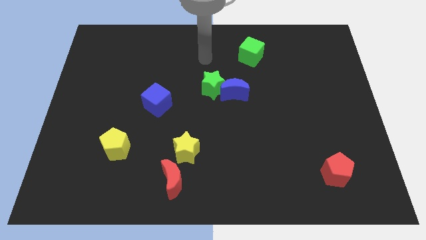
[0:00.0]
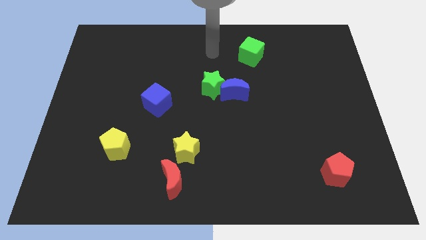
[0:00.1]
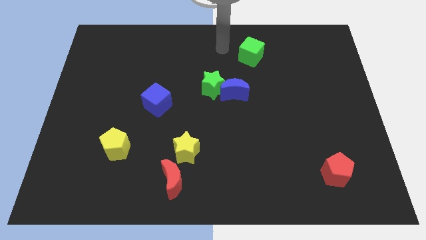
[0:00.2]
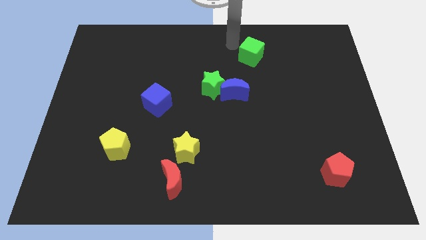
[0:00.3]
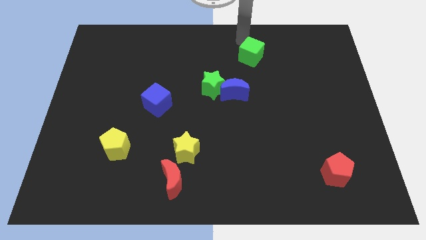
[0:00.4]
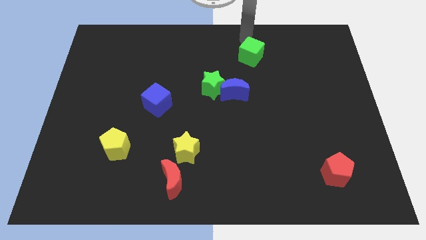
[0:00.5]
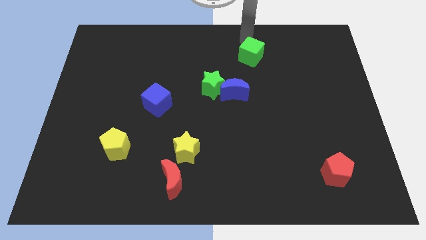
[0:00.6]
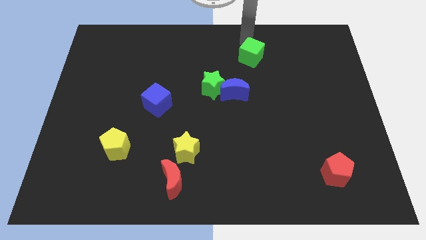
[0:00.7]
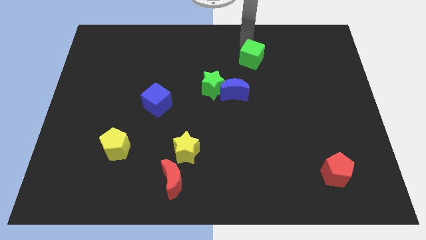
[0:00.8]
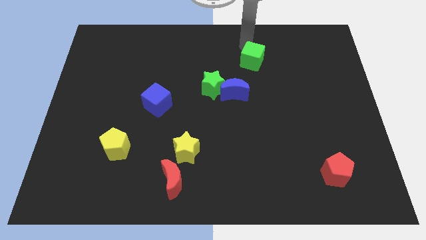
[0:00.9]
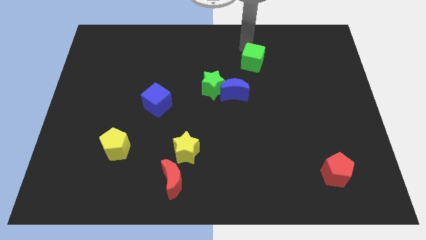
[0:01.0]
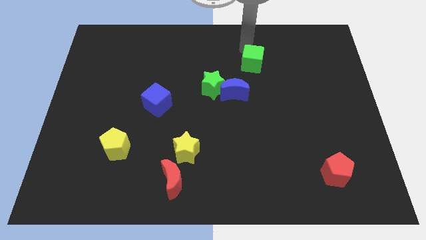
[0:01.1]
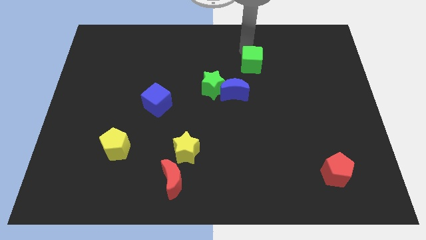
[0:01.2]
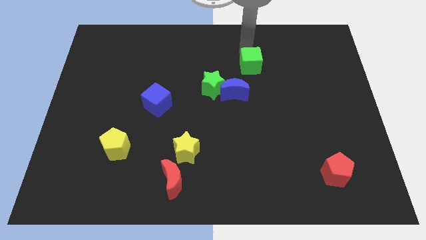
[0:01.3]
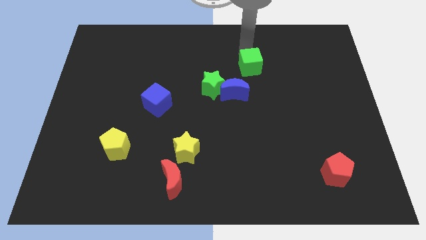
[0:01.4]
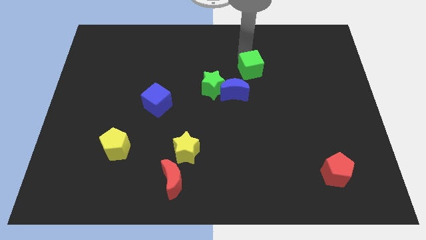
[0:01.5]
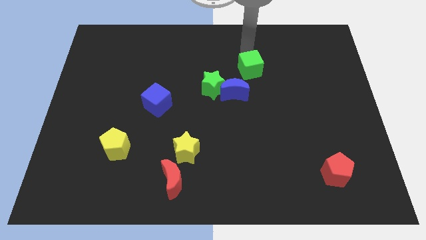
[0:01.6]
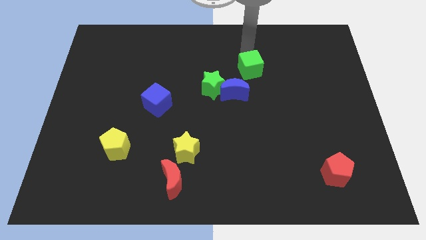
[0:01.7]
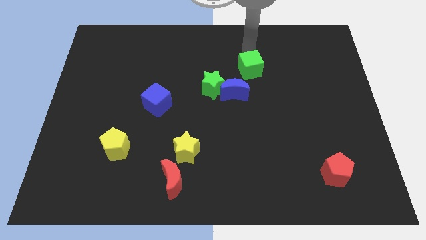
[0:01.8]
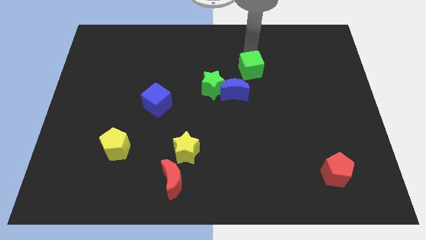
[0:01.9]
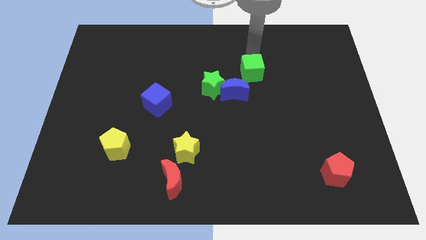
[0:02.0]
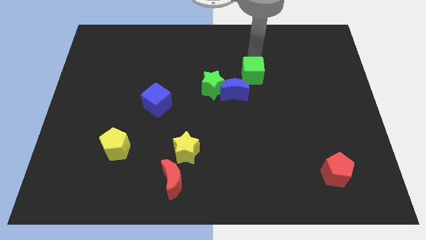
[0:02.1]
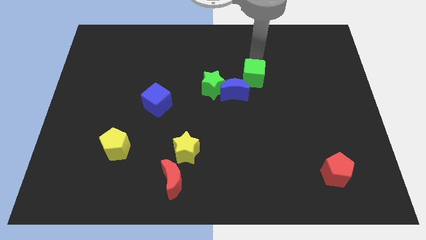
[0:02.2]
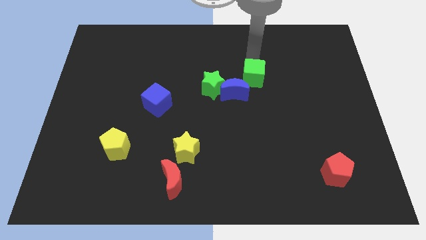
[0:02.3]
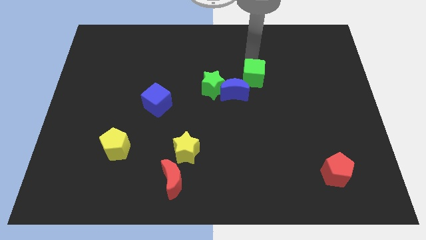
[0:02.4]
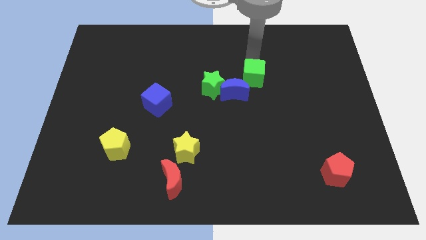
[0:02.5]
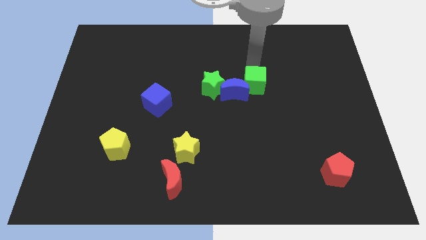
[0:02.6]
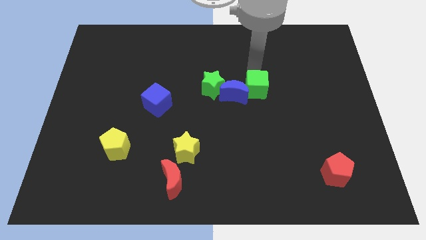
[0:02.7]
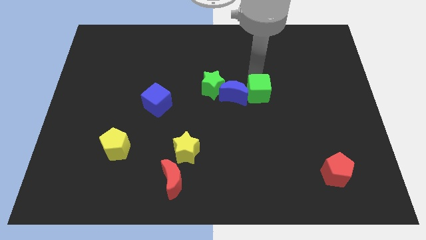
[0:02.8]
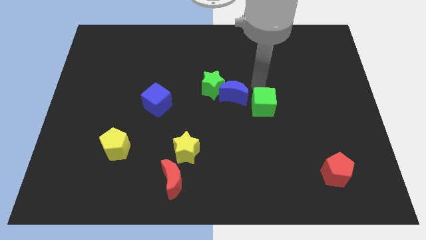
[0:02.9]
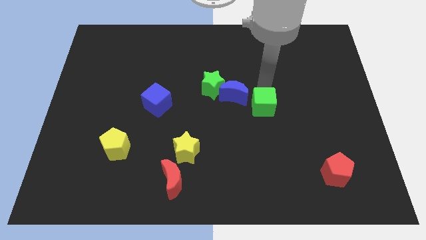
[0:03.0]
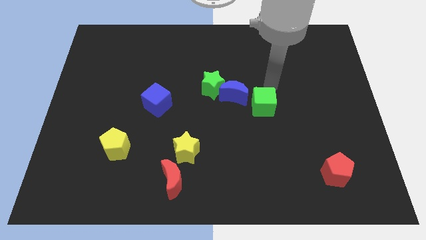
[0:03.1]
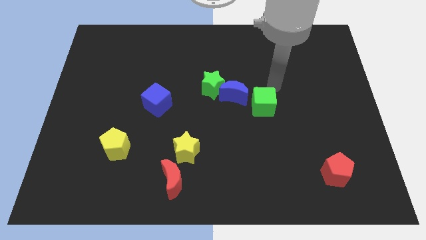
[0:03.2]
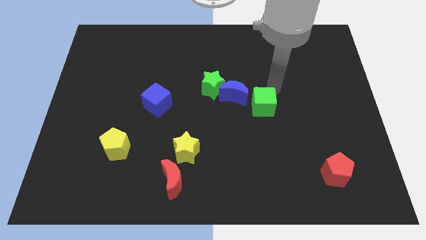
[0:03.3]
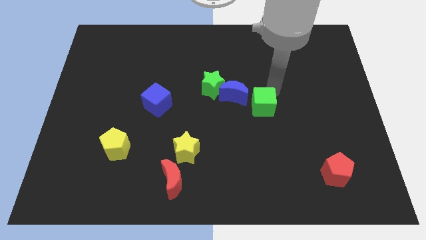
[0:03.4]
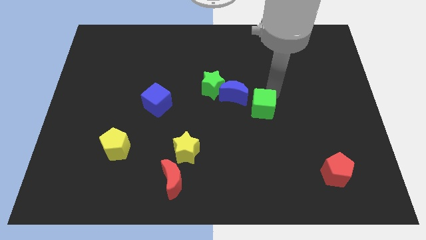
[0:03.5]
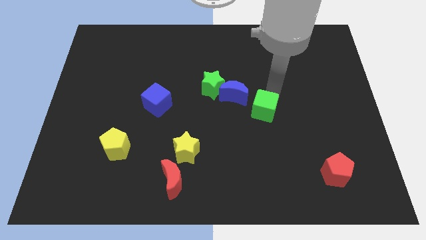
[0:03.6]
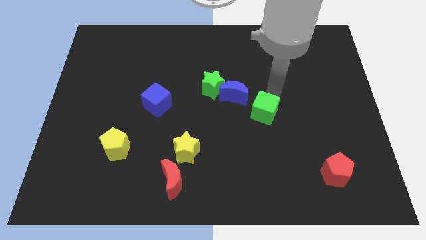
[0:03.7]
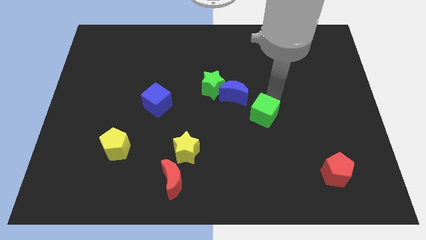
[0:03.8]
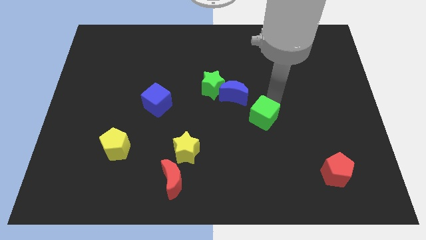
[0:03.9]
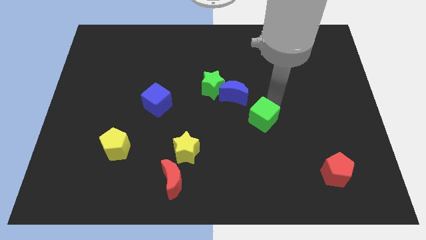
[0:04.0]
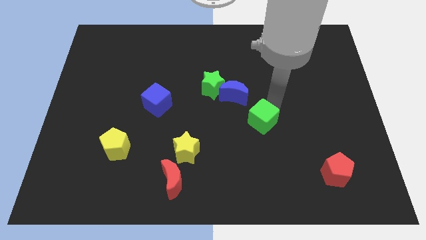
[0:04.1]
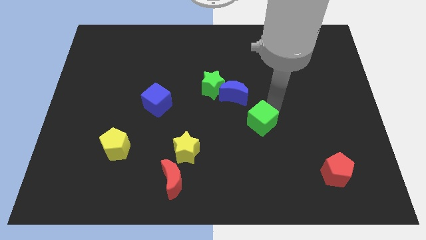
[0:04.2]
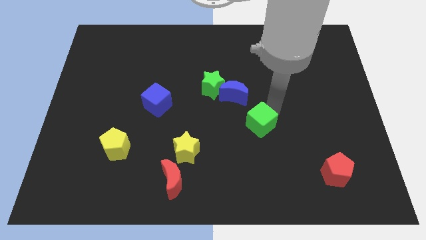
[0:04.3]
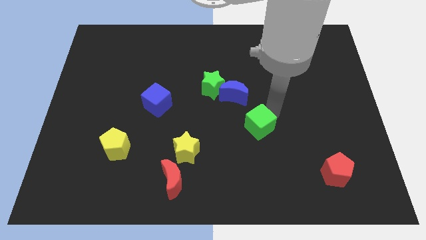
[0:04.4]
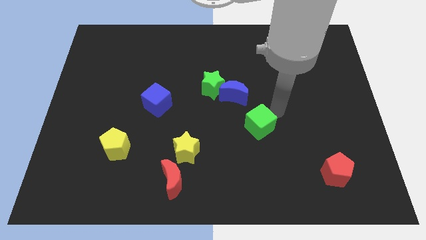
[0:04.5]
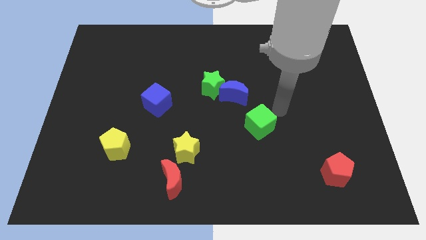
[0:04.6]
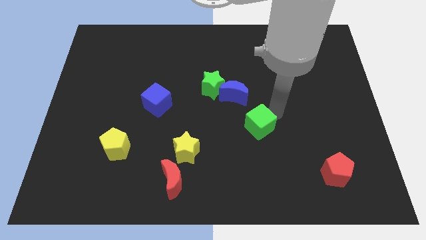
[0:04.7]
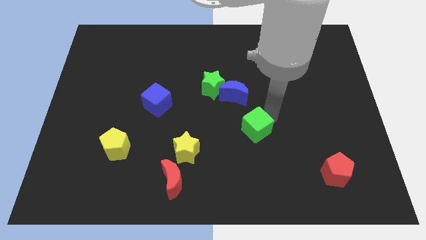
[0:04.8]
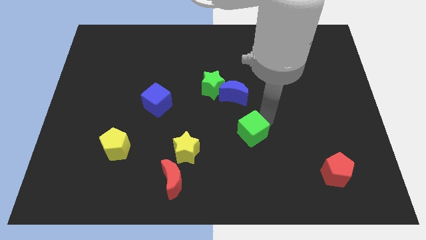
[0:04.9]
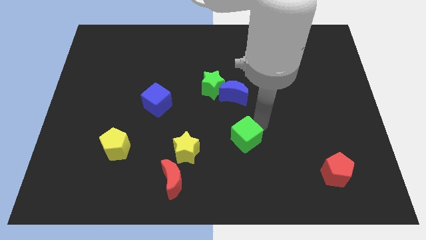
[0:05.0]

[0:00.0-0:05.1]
put the green cube just right of the yellow star

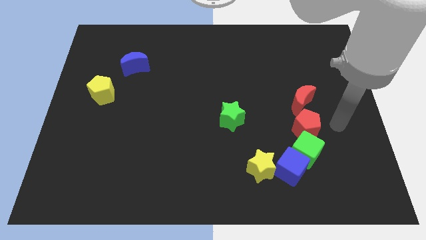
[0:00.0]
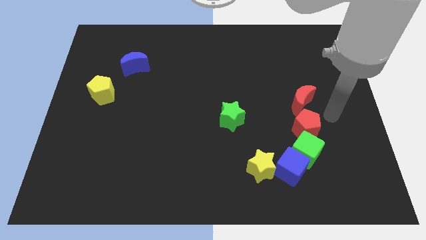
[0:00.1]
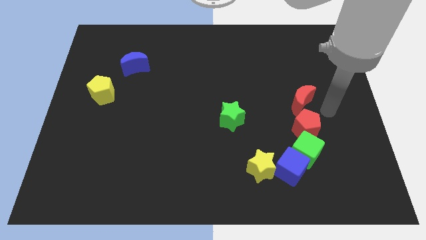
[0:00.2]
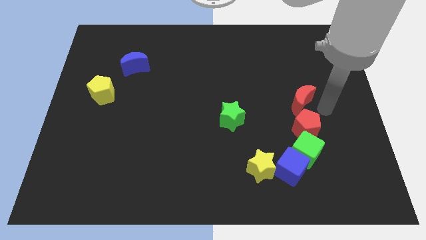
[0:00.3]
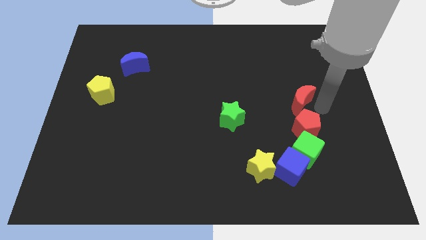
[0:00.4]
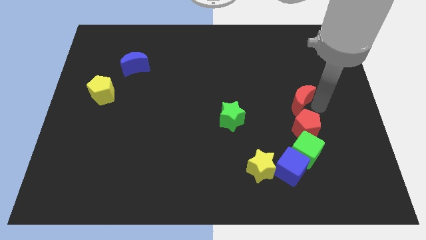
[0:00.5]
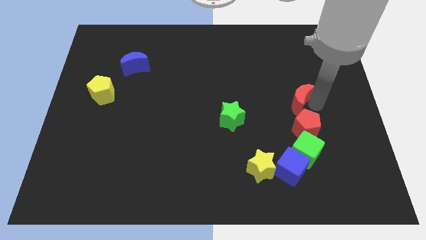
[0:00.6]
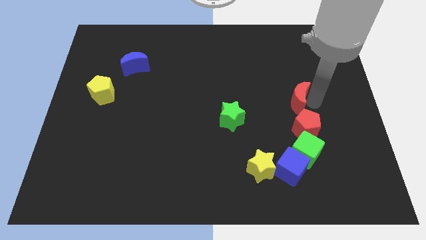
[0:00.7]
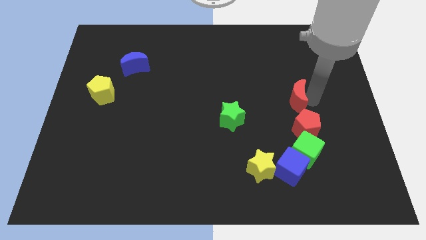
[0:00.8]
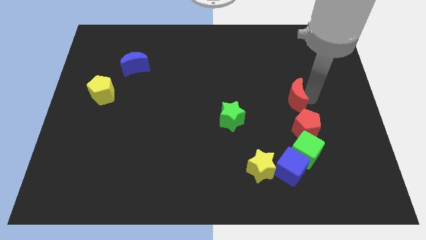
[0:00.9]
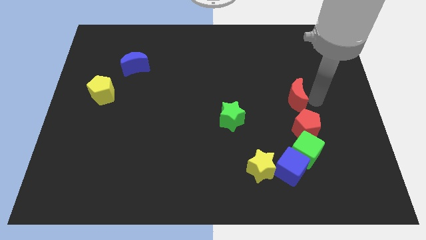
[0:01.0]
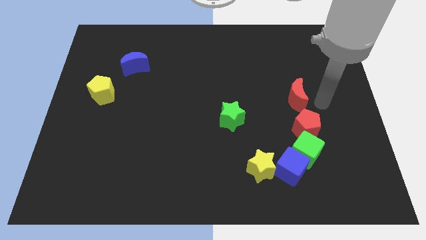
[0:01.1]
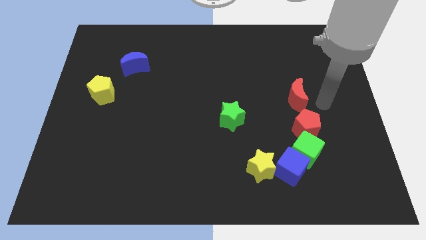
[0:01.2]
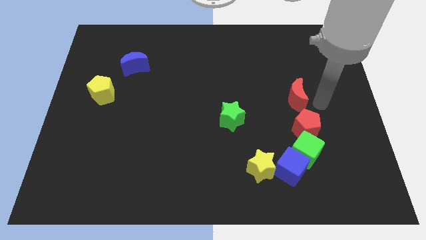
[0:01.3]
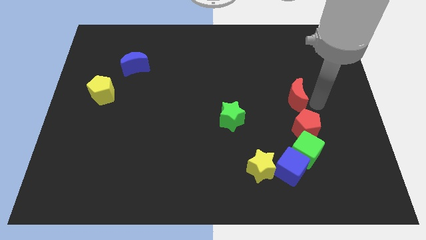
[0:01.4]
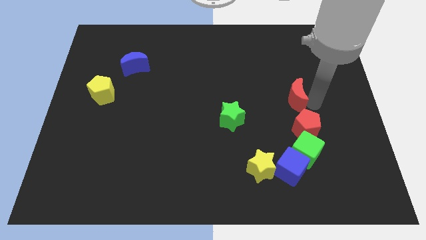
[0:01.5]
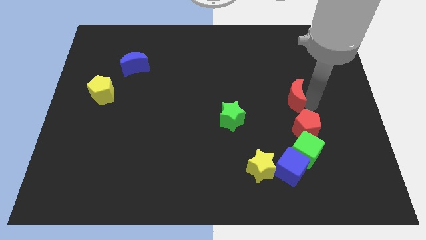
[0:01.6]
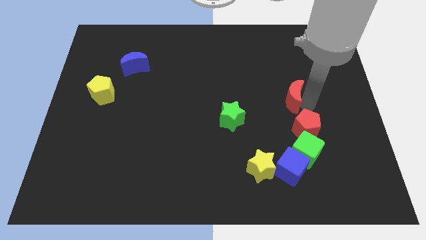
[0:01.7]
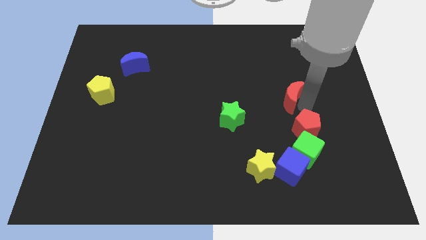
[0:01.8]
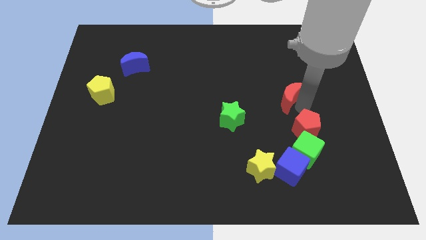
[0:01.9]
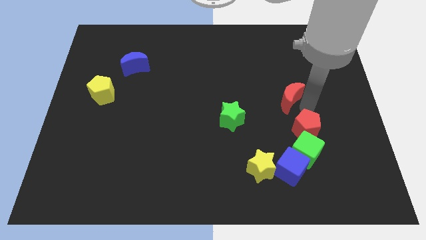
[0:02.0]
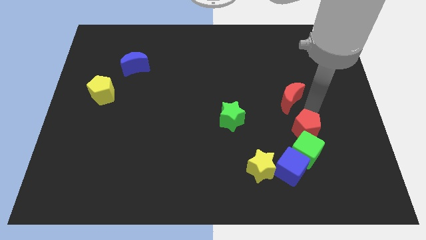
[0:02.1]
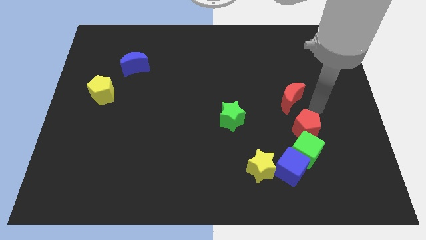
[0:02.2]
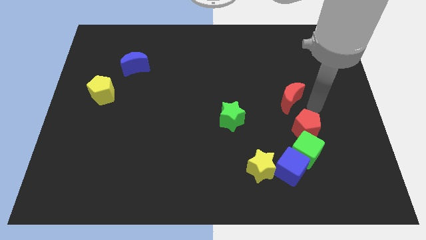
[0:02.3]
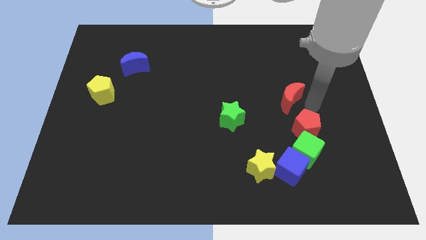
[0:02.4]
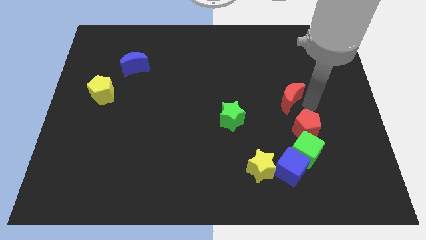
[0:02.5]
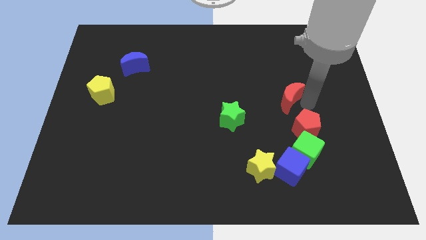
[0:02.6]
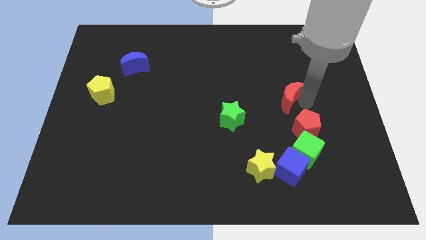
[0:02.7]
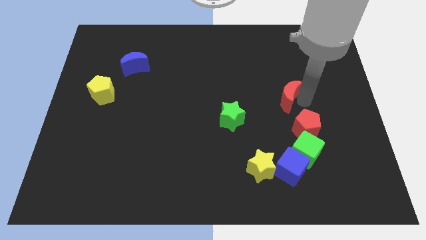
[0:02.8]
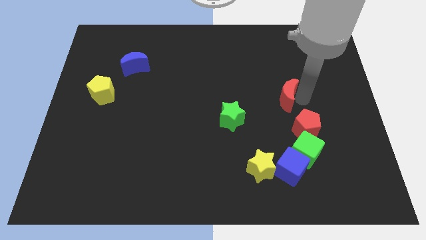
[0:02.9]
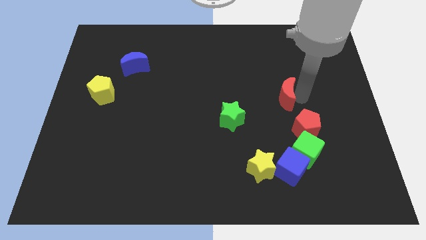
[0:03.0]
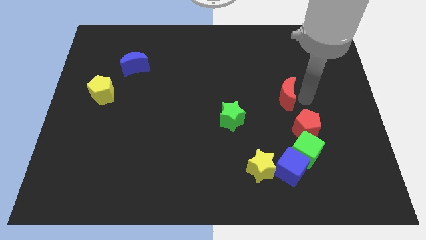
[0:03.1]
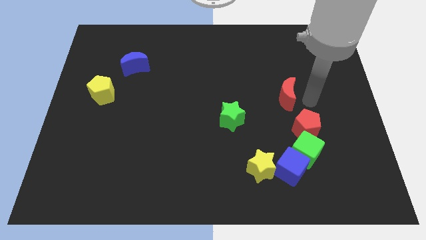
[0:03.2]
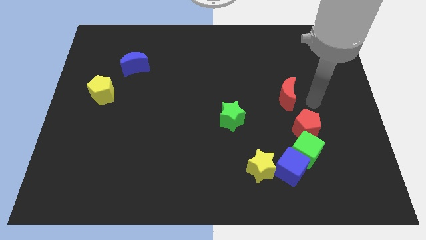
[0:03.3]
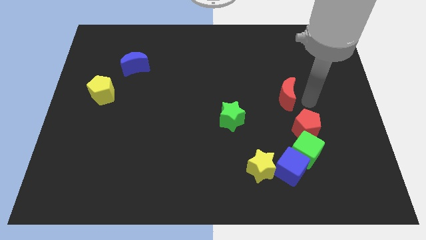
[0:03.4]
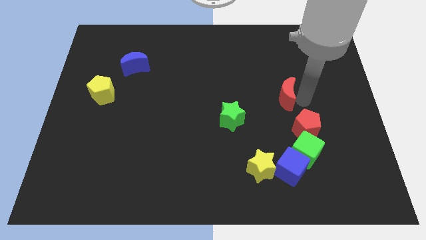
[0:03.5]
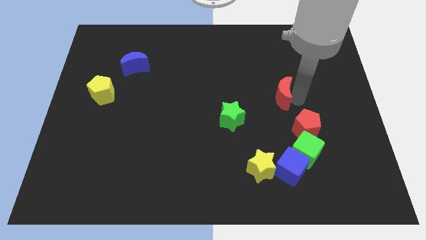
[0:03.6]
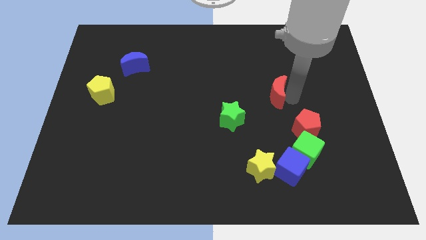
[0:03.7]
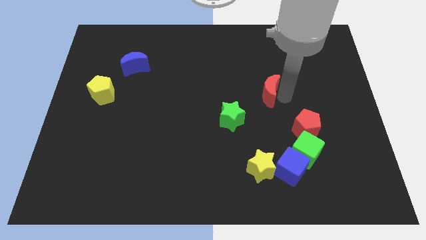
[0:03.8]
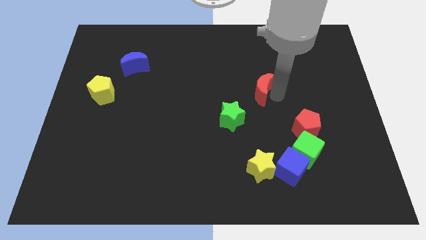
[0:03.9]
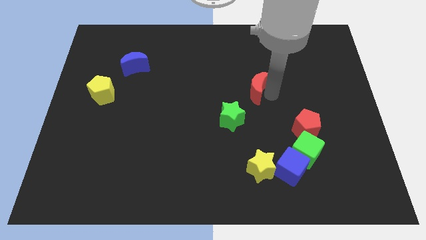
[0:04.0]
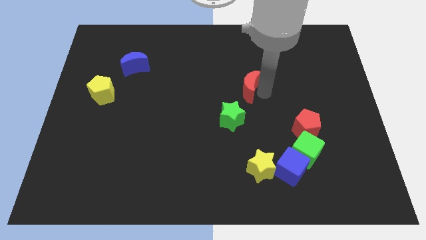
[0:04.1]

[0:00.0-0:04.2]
push the red moon to the top side of the green star
